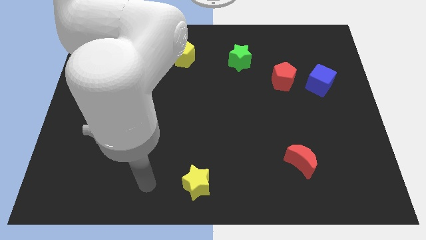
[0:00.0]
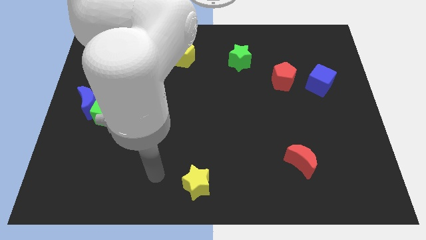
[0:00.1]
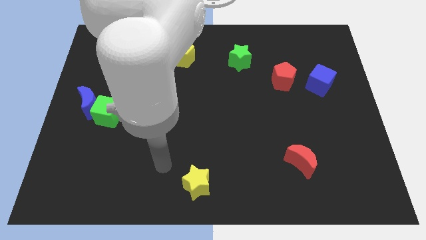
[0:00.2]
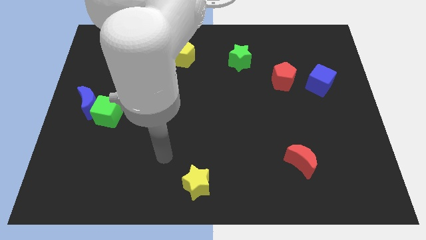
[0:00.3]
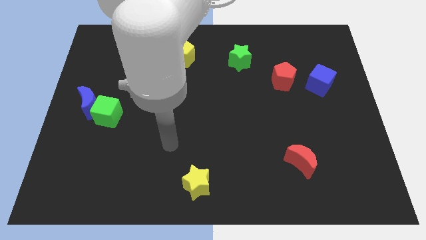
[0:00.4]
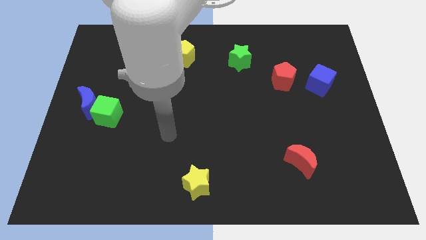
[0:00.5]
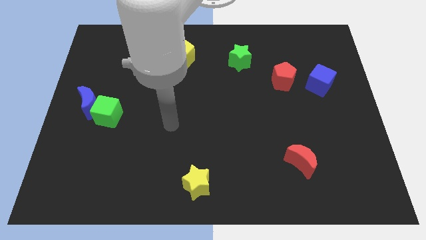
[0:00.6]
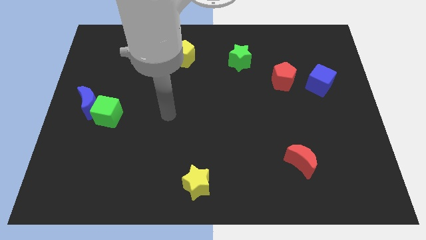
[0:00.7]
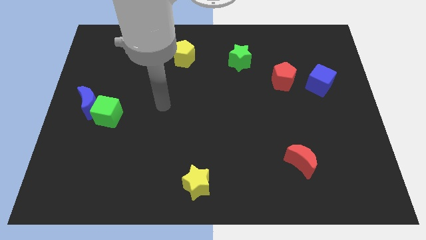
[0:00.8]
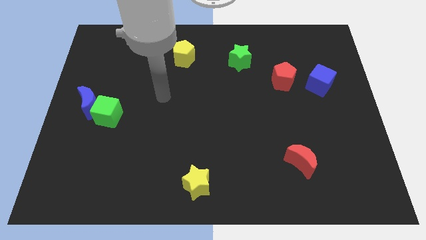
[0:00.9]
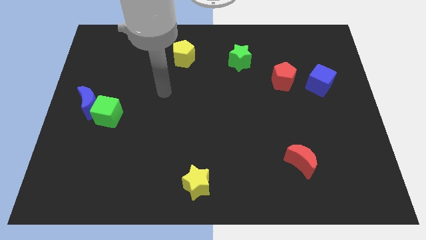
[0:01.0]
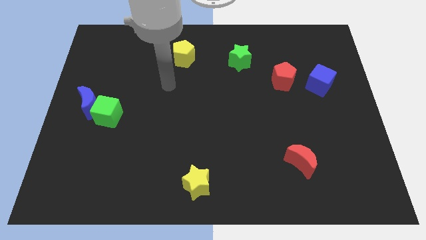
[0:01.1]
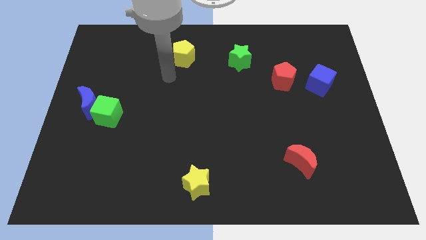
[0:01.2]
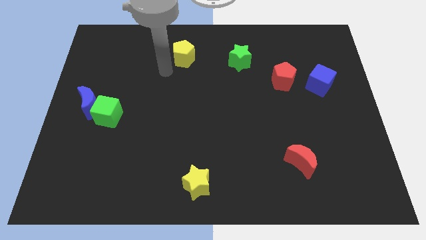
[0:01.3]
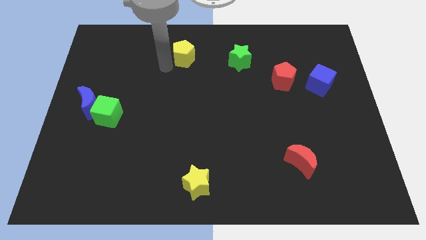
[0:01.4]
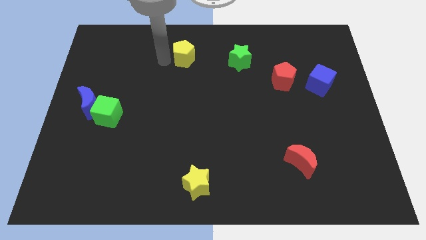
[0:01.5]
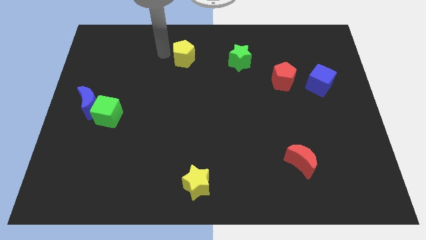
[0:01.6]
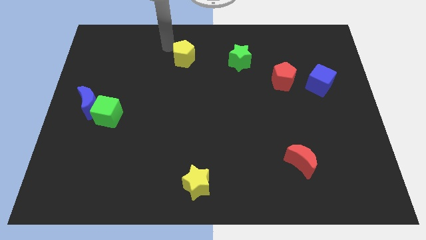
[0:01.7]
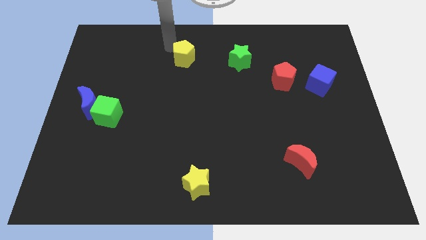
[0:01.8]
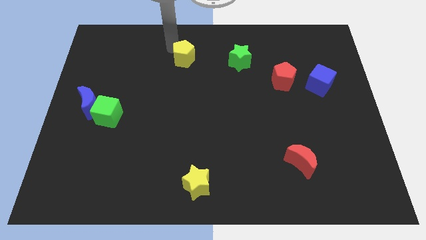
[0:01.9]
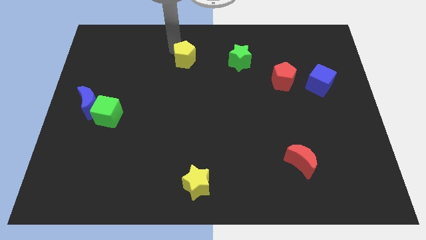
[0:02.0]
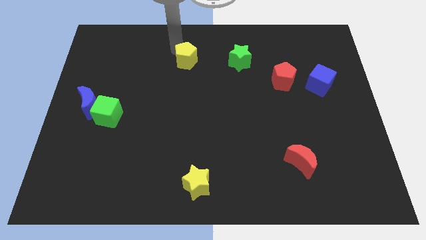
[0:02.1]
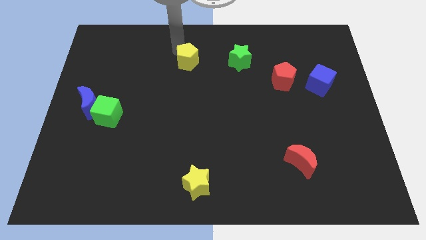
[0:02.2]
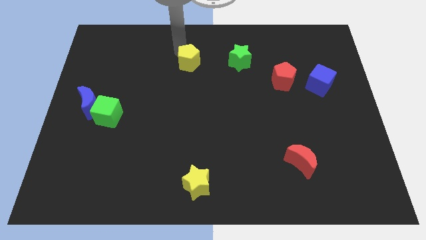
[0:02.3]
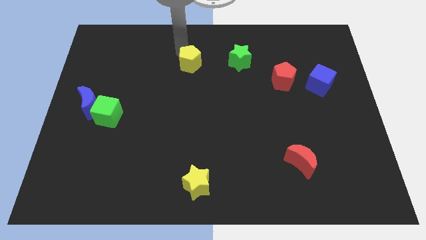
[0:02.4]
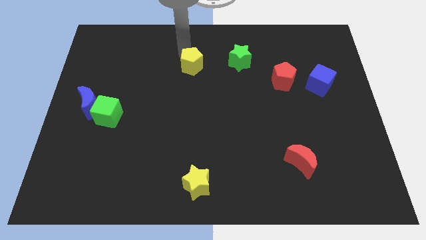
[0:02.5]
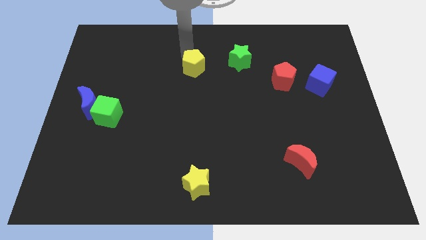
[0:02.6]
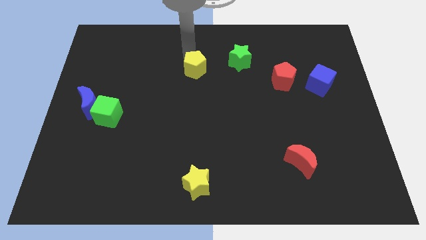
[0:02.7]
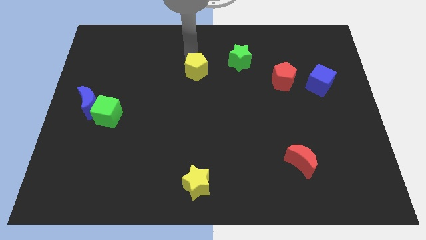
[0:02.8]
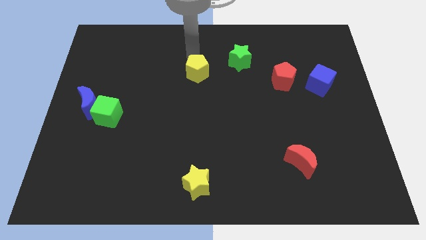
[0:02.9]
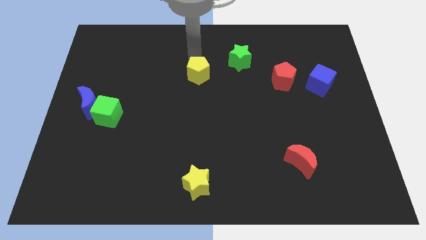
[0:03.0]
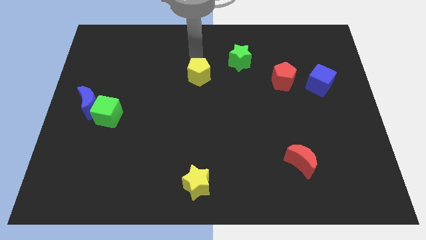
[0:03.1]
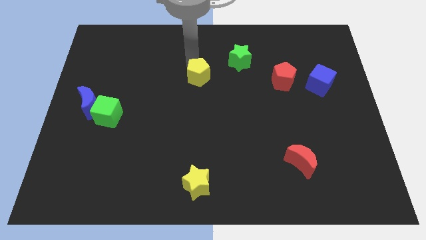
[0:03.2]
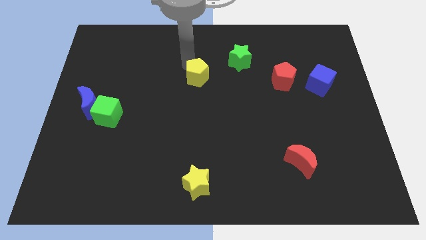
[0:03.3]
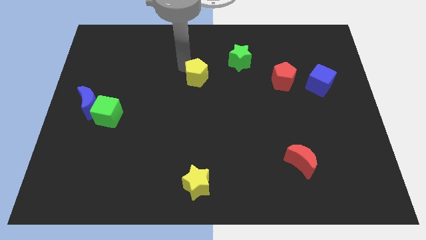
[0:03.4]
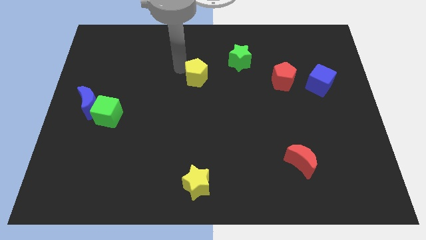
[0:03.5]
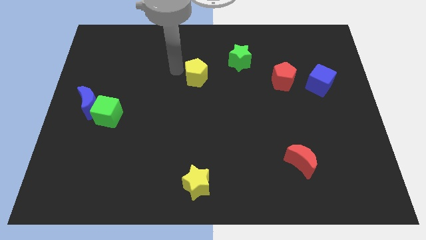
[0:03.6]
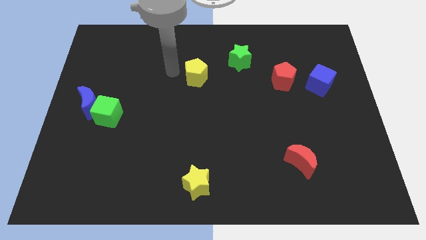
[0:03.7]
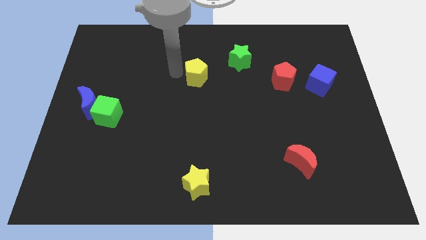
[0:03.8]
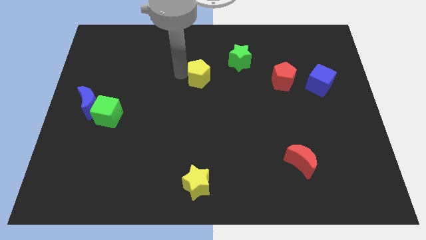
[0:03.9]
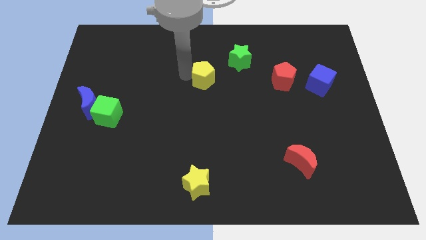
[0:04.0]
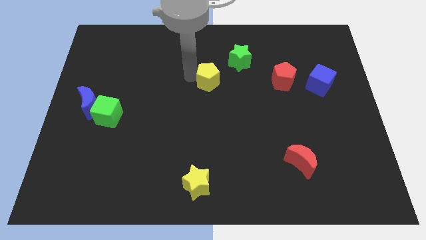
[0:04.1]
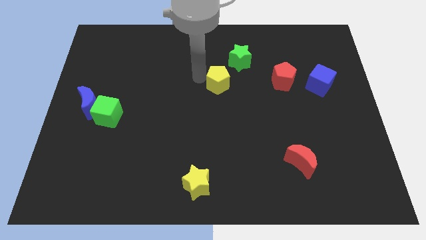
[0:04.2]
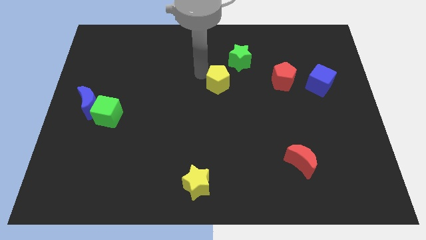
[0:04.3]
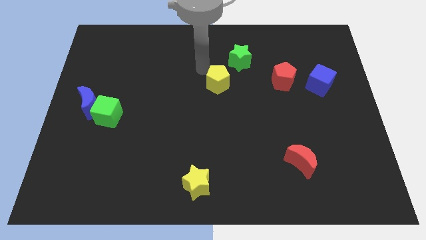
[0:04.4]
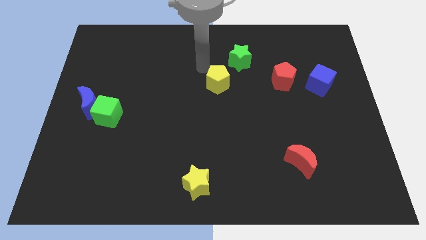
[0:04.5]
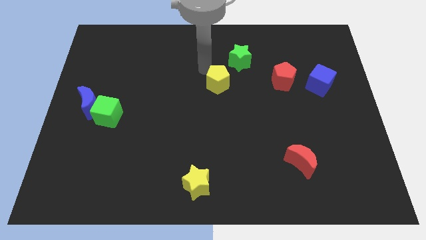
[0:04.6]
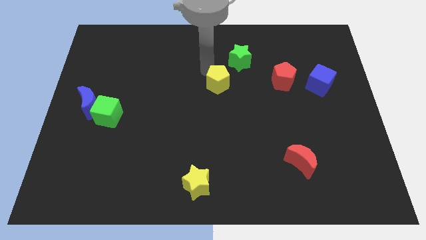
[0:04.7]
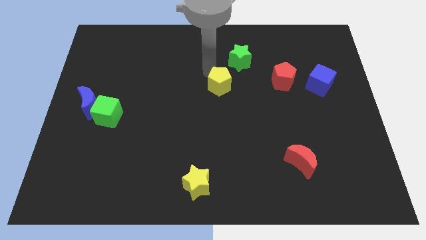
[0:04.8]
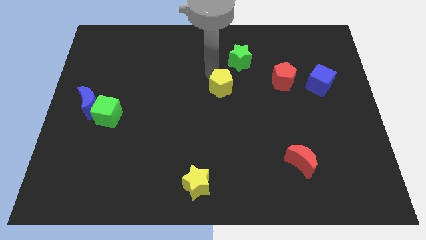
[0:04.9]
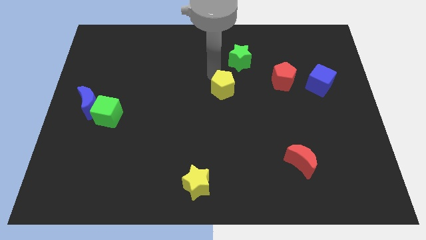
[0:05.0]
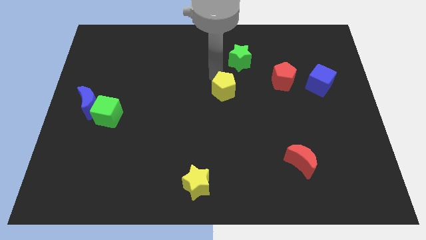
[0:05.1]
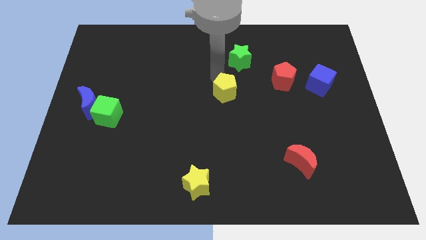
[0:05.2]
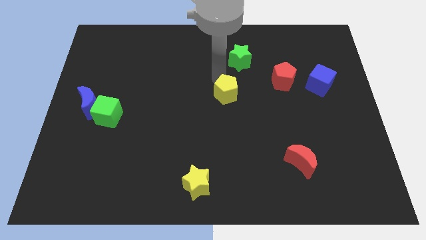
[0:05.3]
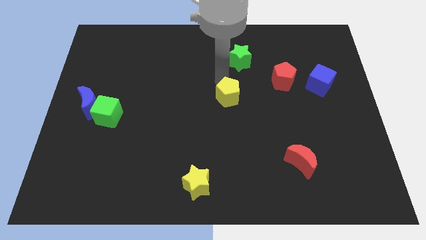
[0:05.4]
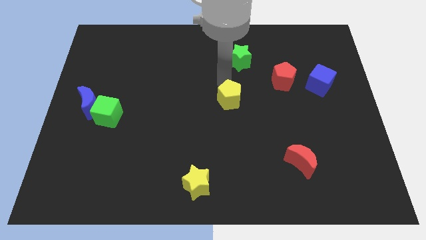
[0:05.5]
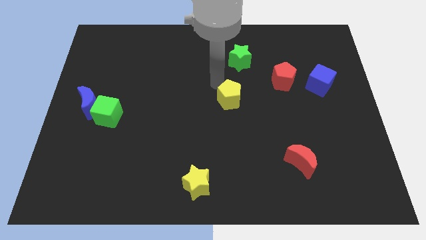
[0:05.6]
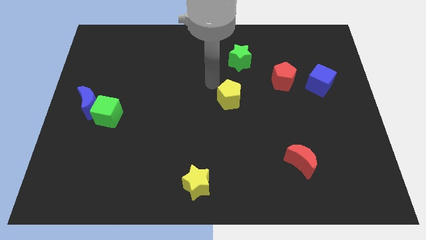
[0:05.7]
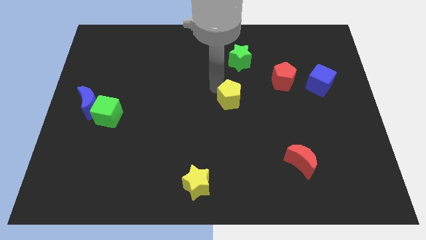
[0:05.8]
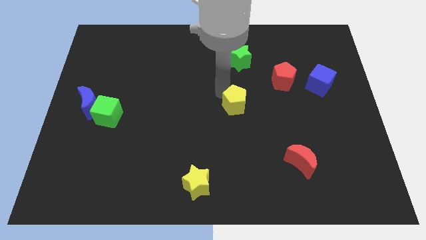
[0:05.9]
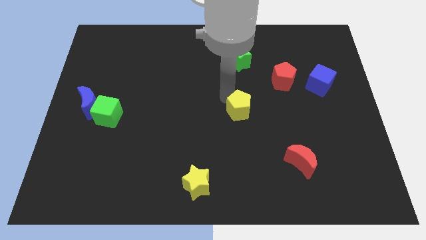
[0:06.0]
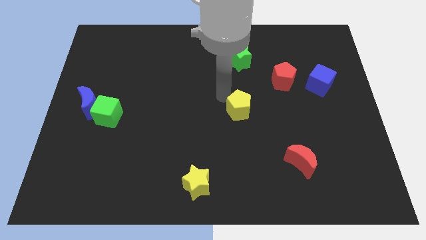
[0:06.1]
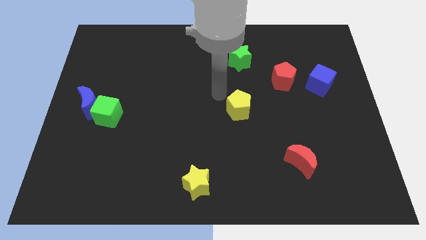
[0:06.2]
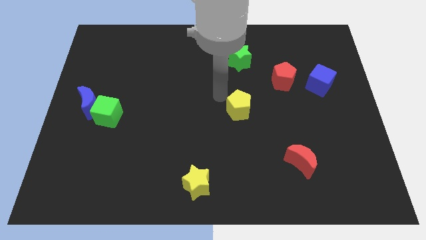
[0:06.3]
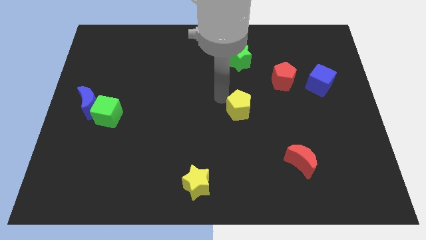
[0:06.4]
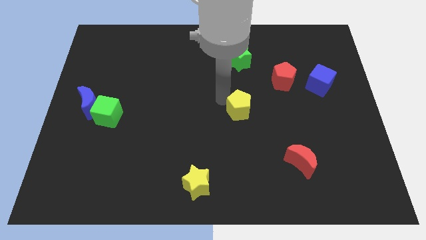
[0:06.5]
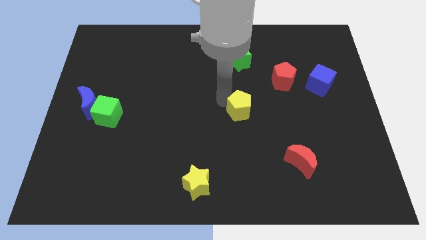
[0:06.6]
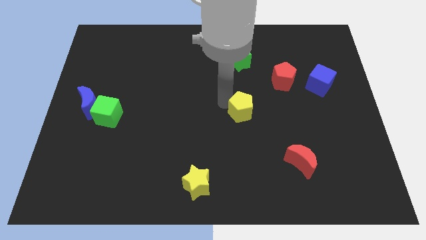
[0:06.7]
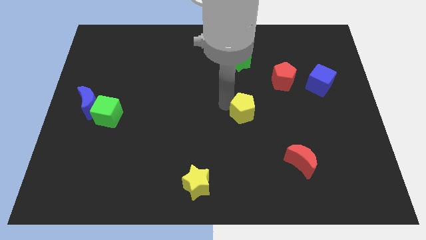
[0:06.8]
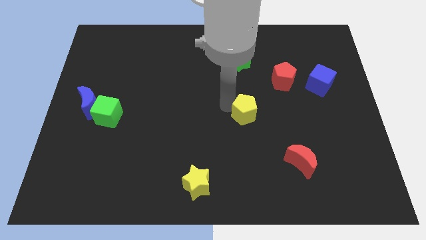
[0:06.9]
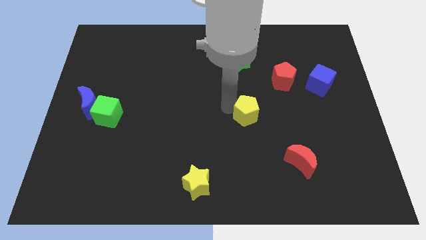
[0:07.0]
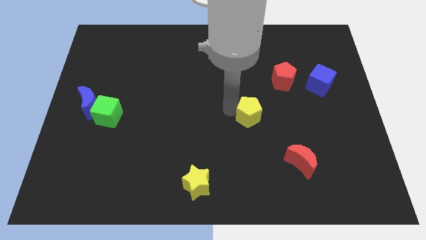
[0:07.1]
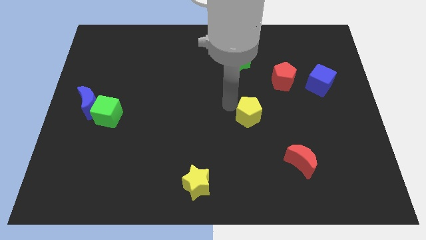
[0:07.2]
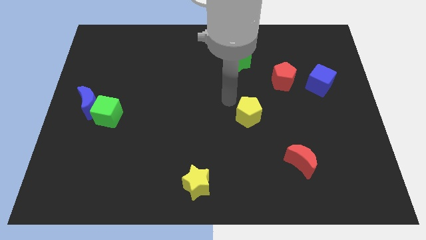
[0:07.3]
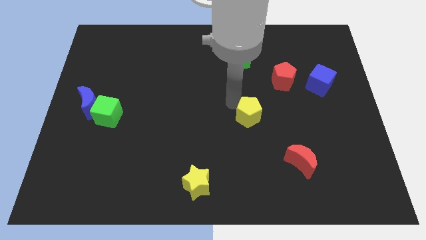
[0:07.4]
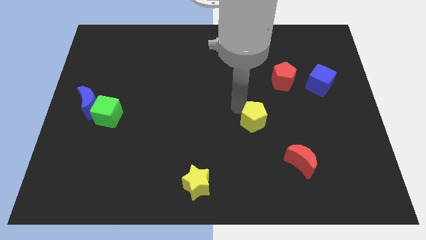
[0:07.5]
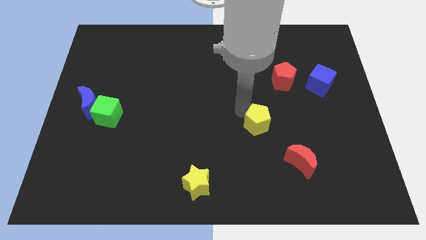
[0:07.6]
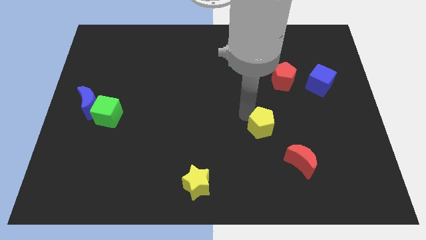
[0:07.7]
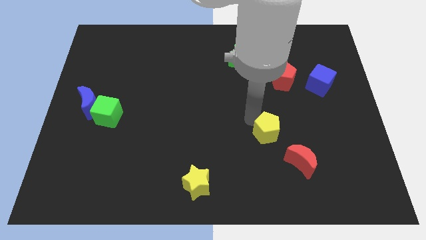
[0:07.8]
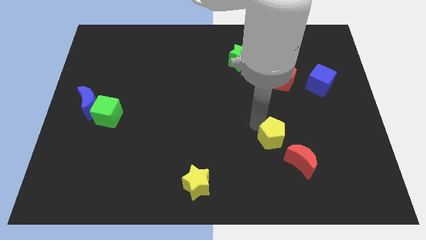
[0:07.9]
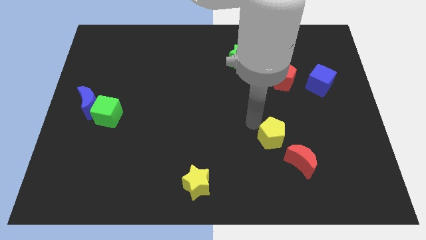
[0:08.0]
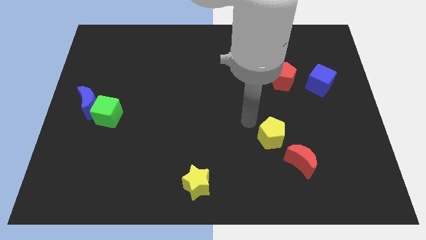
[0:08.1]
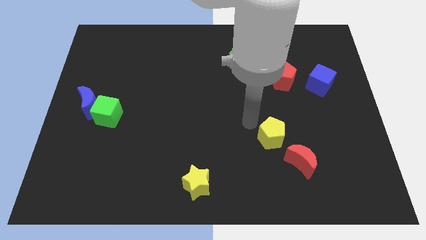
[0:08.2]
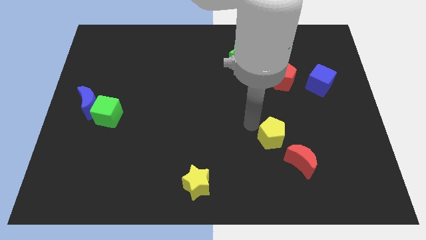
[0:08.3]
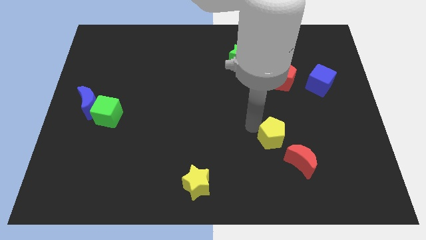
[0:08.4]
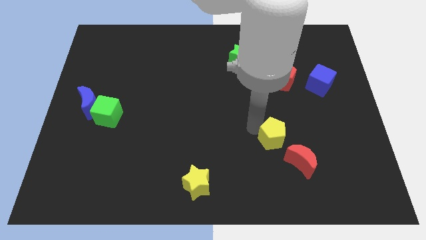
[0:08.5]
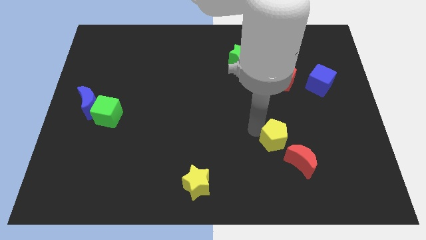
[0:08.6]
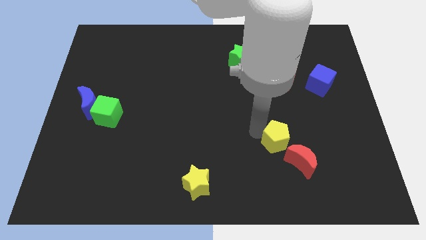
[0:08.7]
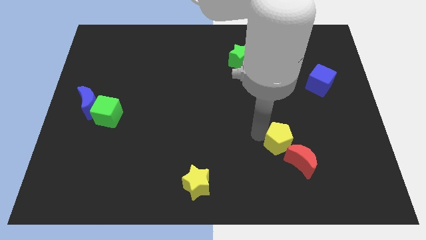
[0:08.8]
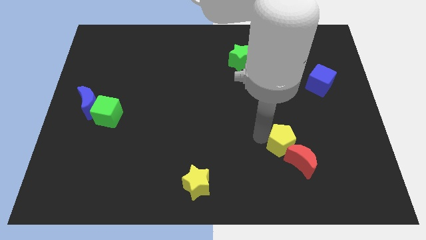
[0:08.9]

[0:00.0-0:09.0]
push the yellow pentagon to the red moon
